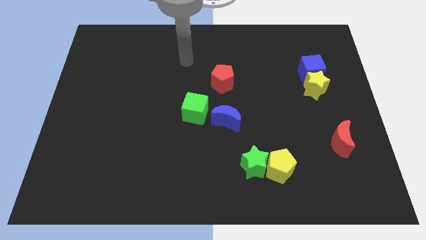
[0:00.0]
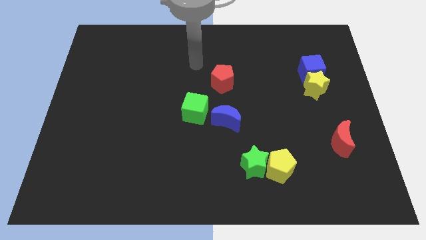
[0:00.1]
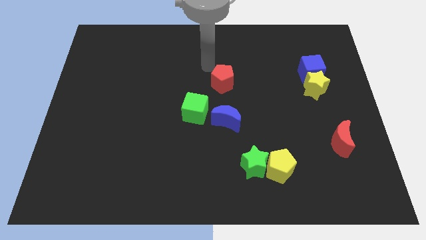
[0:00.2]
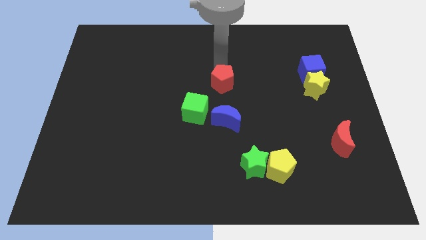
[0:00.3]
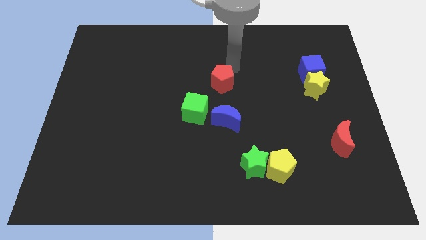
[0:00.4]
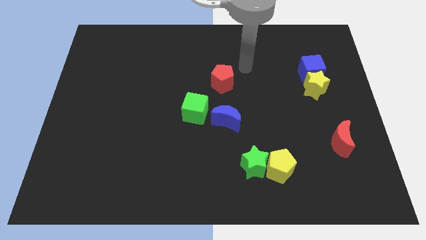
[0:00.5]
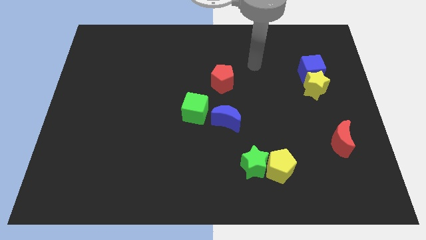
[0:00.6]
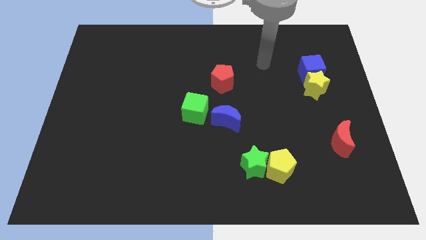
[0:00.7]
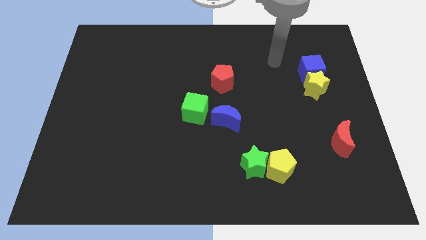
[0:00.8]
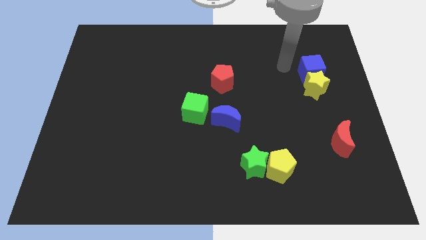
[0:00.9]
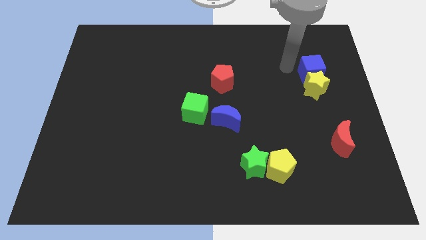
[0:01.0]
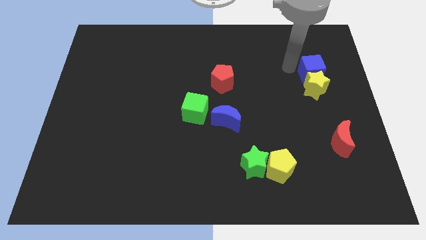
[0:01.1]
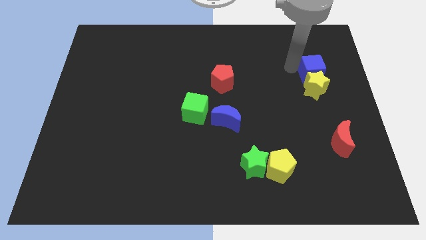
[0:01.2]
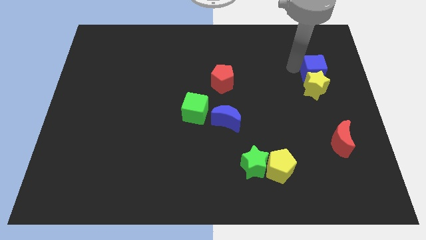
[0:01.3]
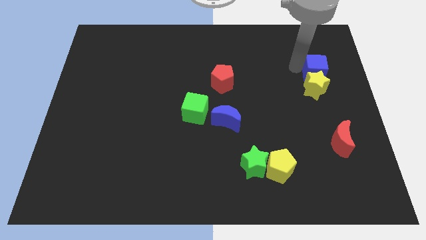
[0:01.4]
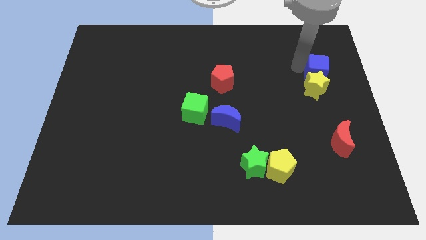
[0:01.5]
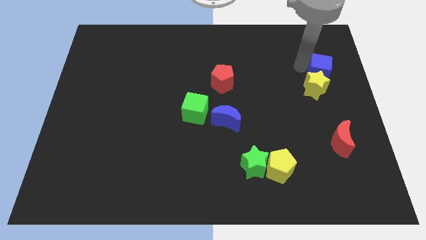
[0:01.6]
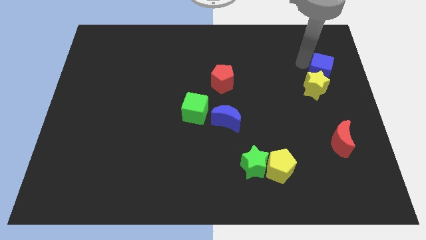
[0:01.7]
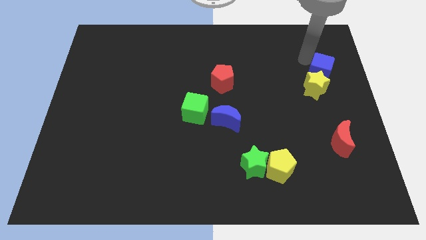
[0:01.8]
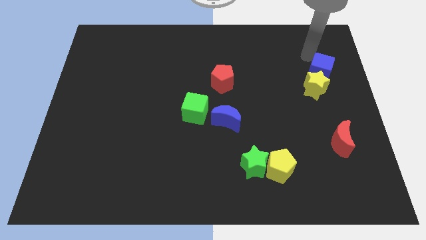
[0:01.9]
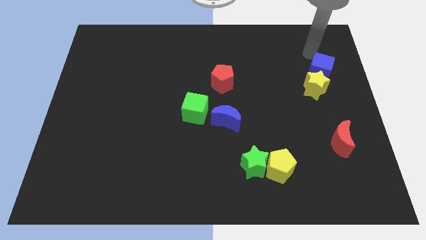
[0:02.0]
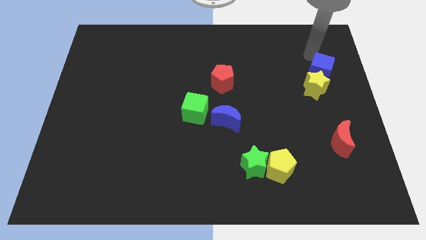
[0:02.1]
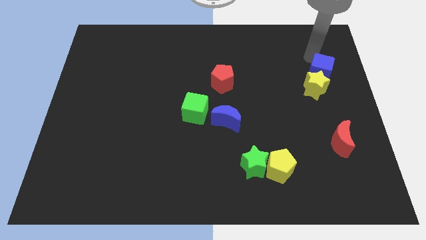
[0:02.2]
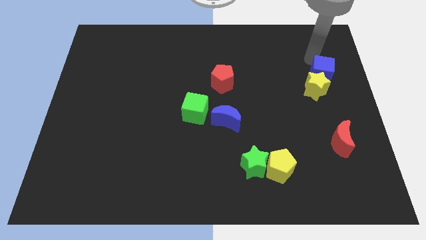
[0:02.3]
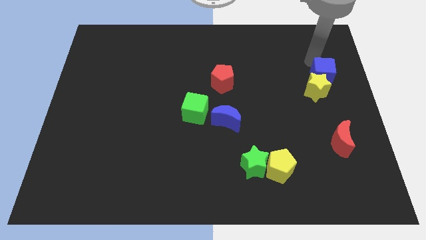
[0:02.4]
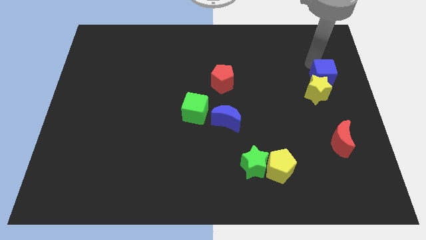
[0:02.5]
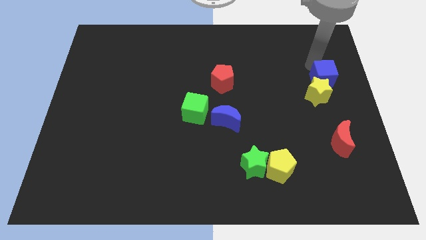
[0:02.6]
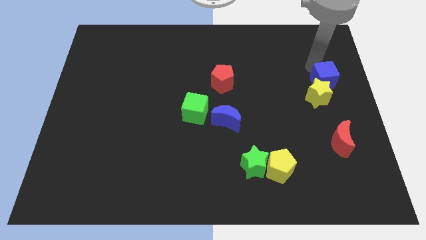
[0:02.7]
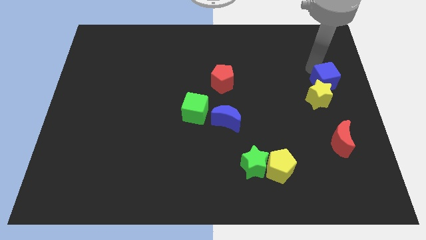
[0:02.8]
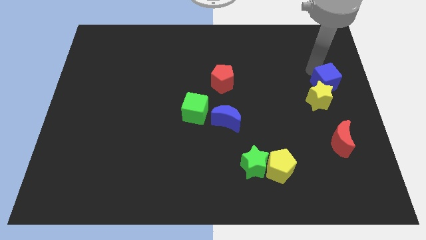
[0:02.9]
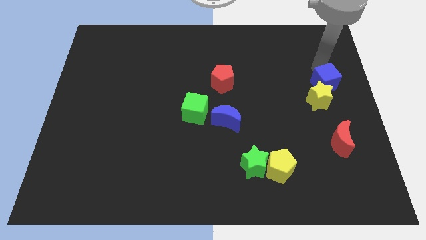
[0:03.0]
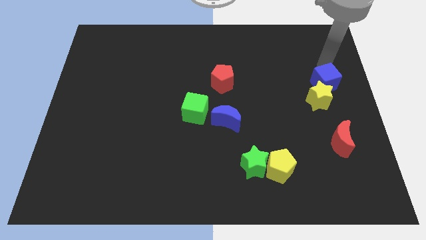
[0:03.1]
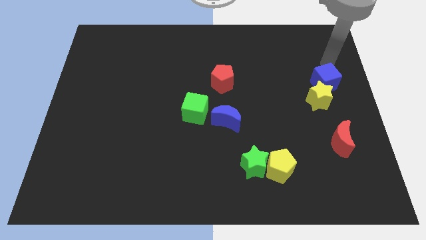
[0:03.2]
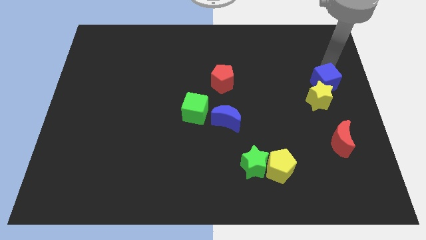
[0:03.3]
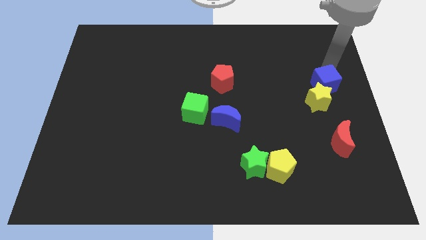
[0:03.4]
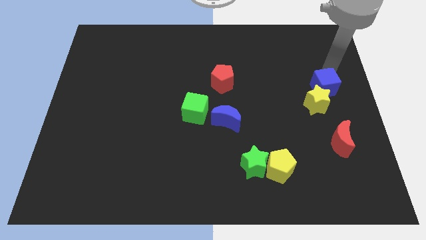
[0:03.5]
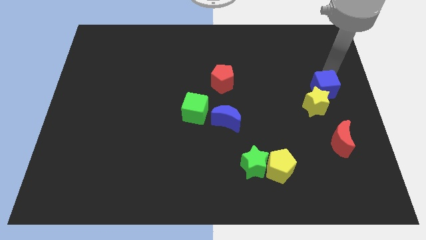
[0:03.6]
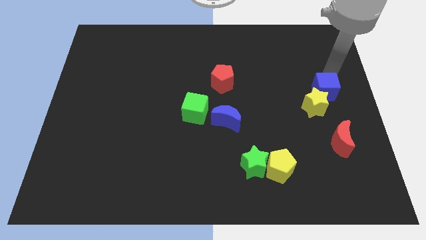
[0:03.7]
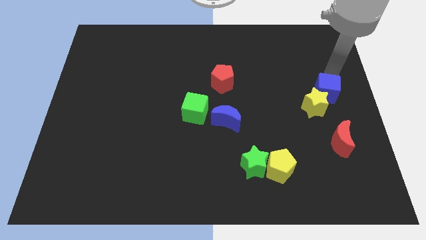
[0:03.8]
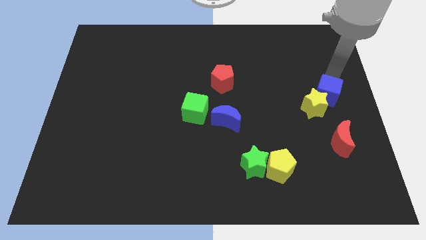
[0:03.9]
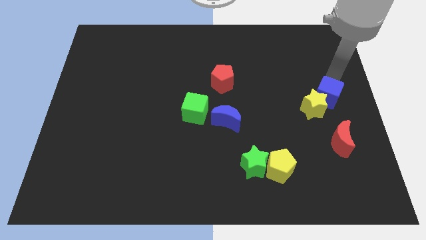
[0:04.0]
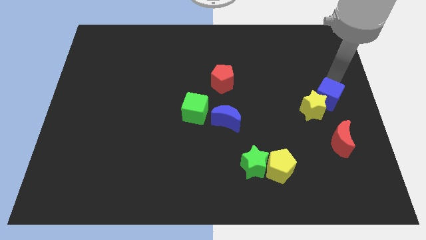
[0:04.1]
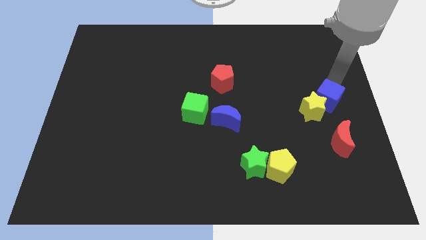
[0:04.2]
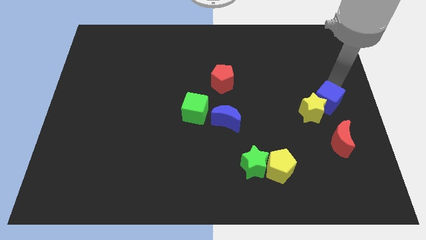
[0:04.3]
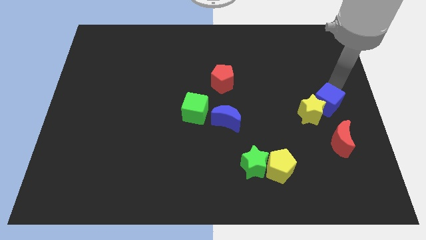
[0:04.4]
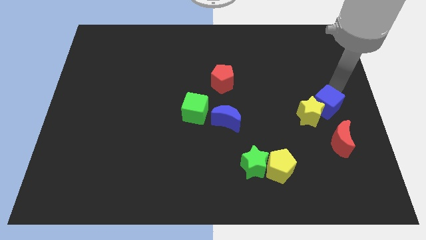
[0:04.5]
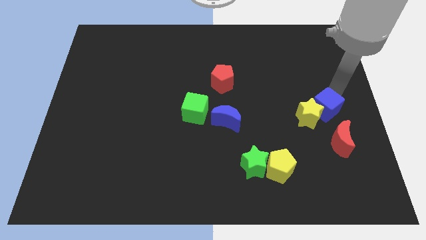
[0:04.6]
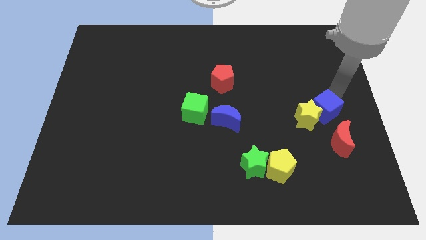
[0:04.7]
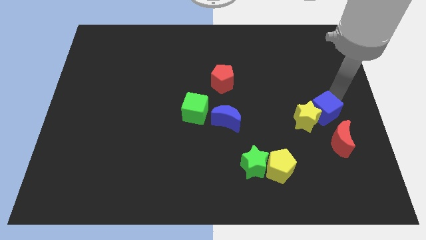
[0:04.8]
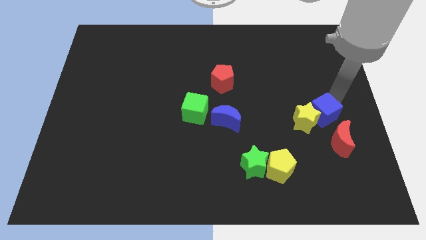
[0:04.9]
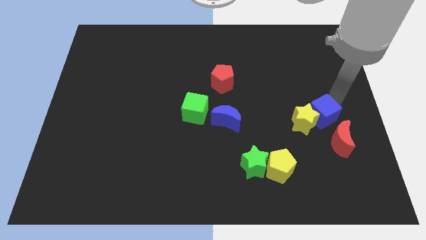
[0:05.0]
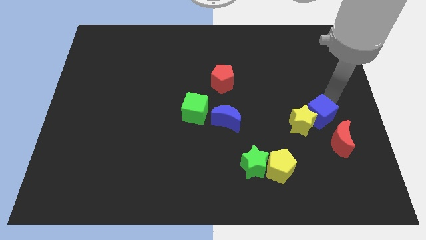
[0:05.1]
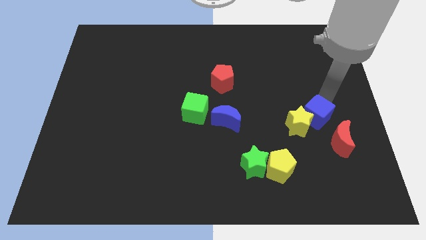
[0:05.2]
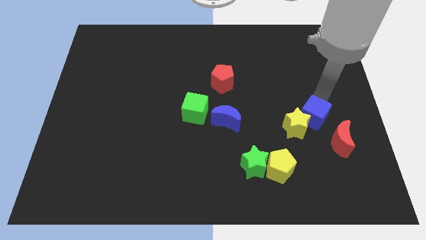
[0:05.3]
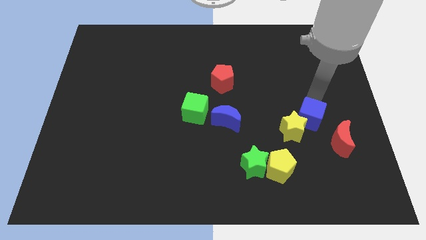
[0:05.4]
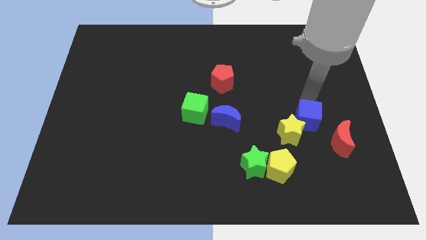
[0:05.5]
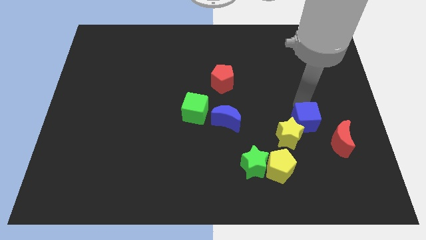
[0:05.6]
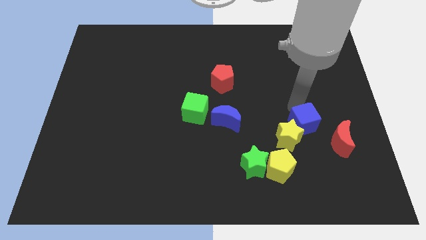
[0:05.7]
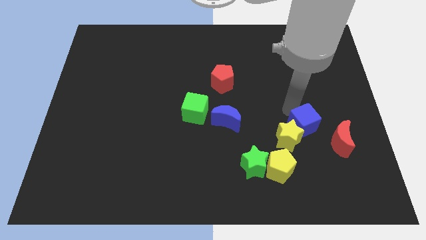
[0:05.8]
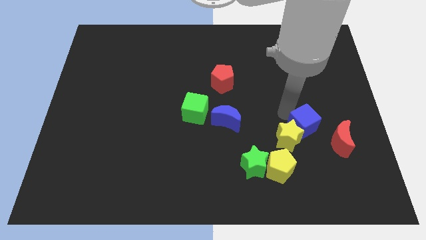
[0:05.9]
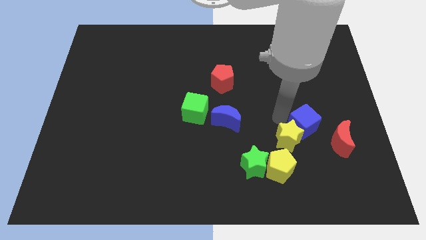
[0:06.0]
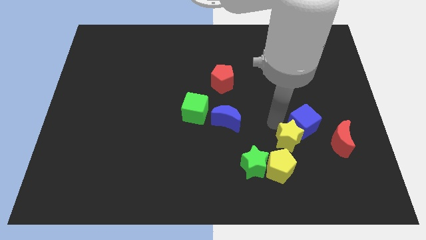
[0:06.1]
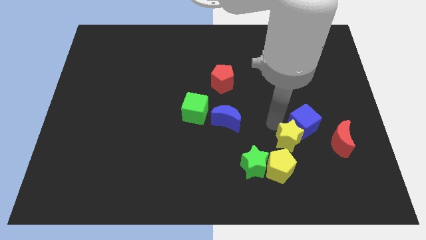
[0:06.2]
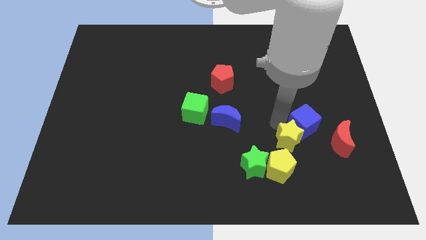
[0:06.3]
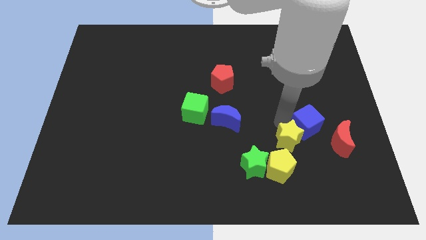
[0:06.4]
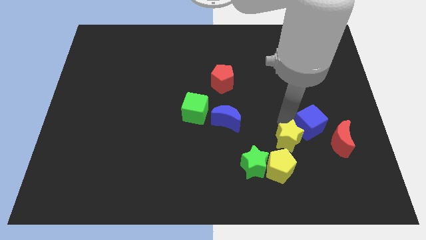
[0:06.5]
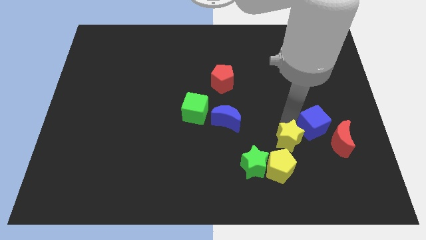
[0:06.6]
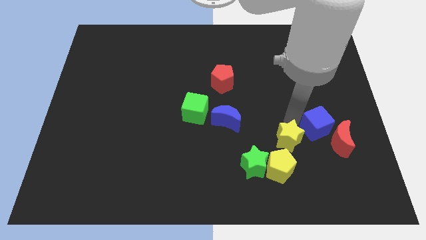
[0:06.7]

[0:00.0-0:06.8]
slide the blue cube next to the red moon
